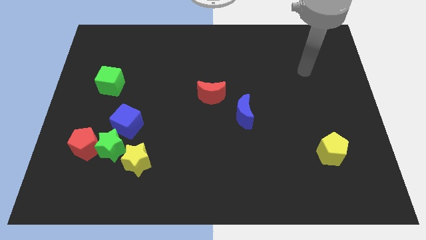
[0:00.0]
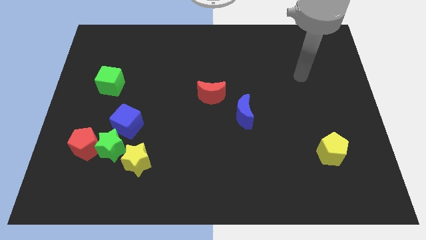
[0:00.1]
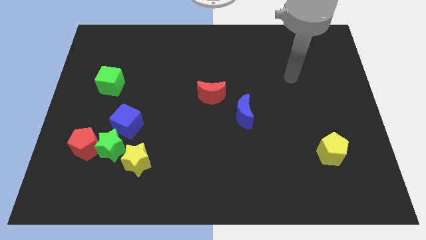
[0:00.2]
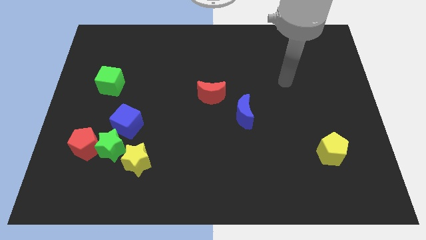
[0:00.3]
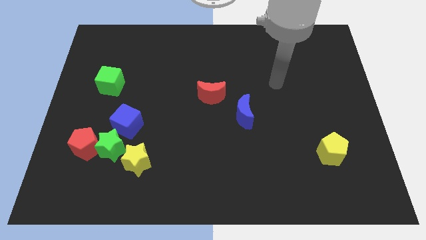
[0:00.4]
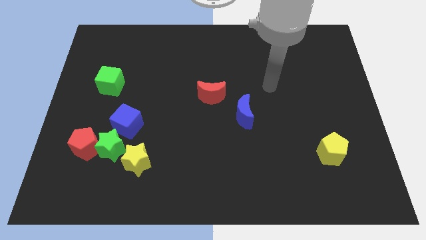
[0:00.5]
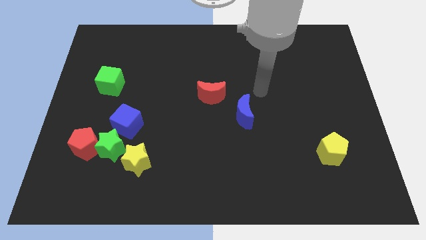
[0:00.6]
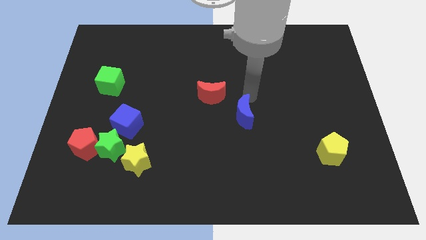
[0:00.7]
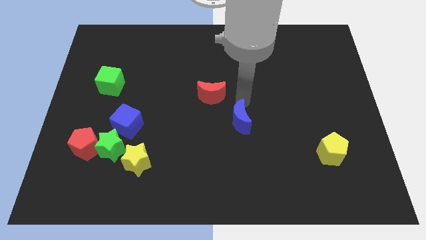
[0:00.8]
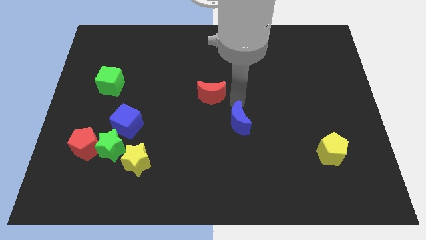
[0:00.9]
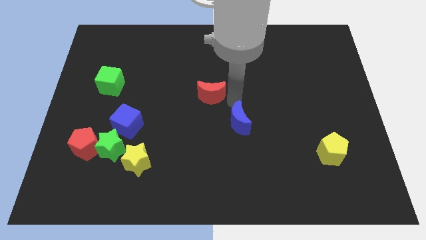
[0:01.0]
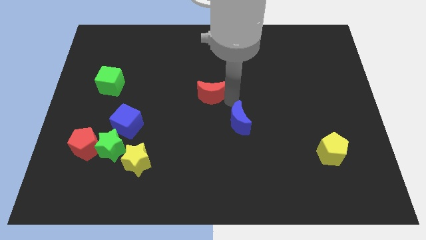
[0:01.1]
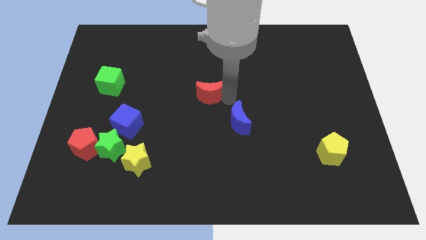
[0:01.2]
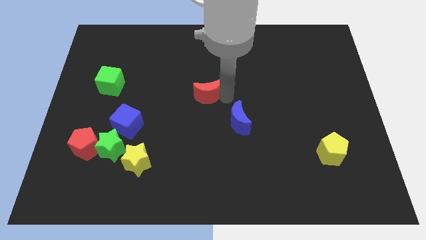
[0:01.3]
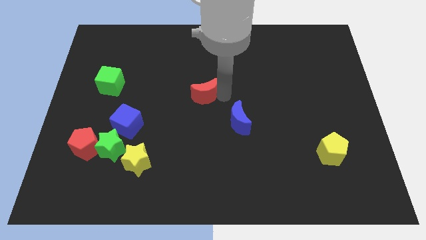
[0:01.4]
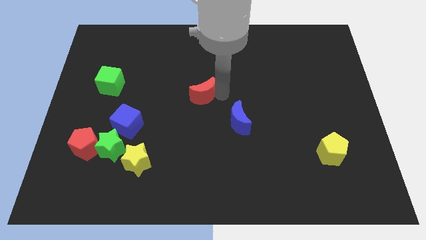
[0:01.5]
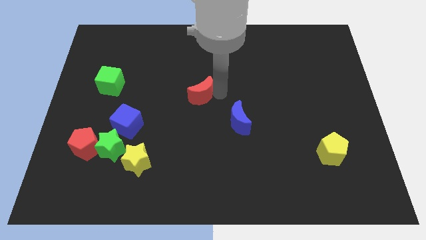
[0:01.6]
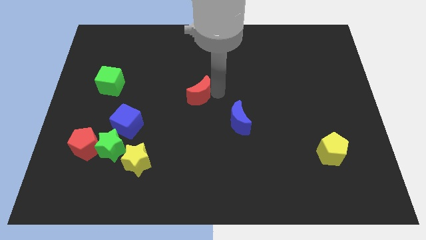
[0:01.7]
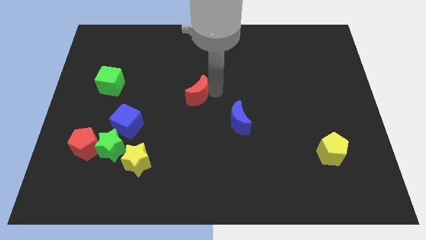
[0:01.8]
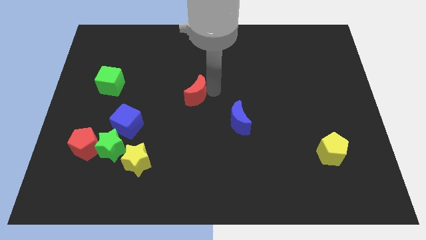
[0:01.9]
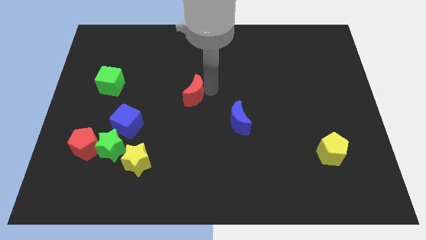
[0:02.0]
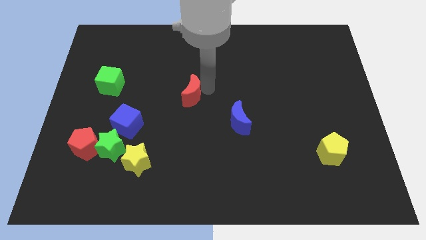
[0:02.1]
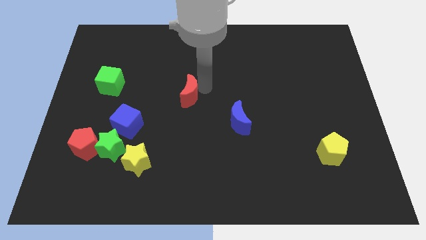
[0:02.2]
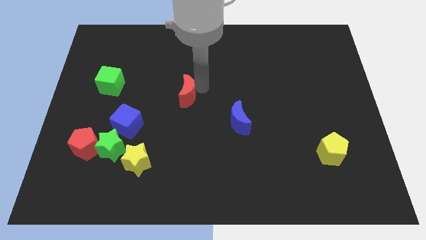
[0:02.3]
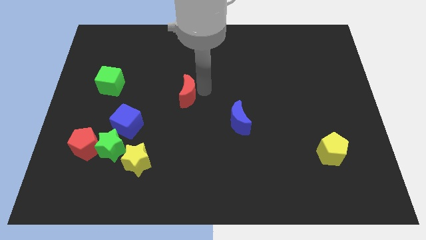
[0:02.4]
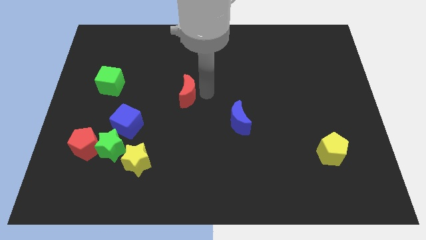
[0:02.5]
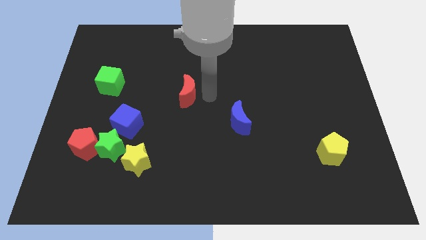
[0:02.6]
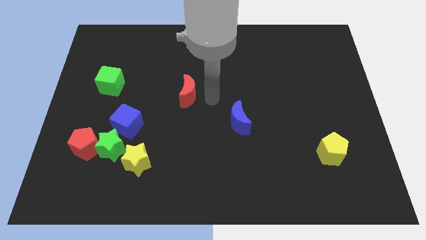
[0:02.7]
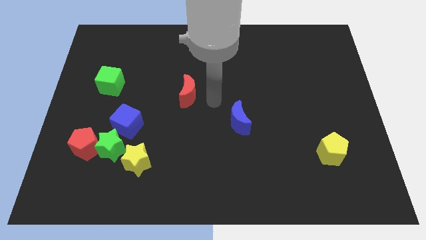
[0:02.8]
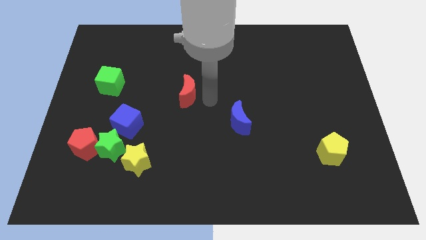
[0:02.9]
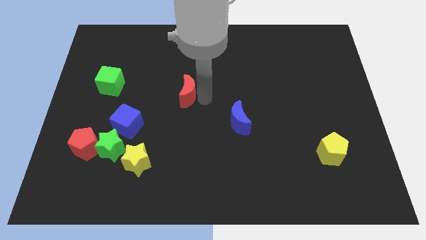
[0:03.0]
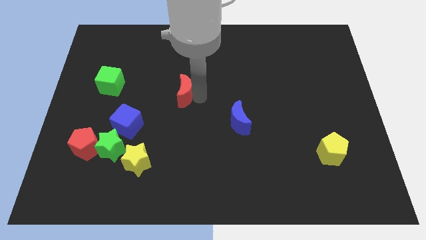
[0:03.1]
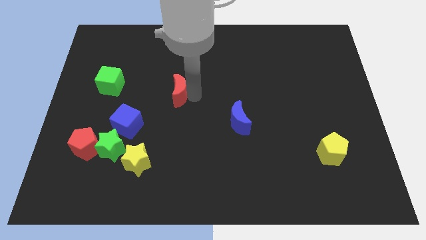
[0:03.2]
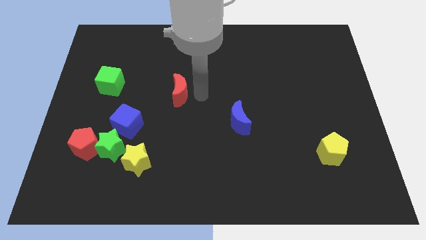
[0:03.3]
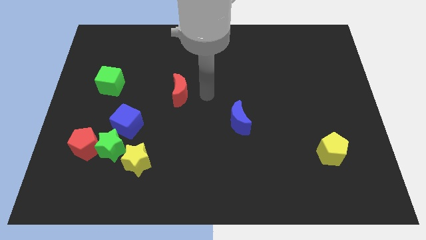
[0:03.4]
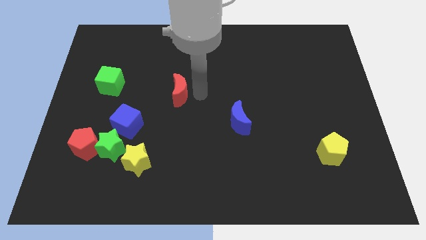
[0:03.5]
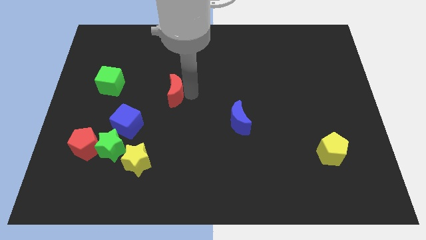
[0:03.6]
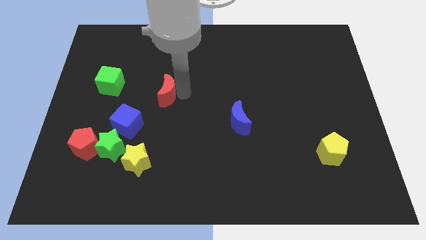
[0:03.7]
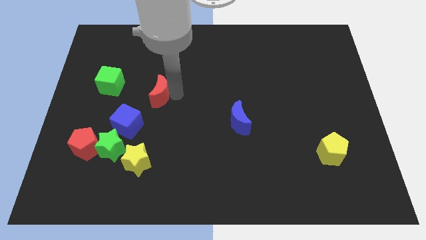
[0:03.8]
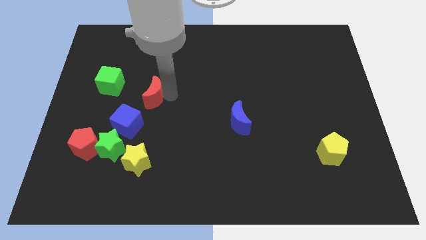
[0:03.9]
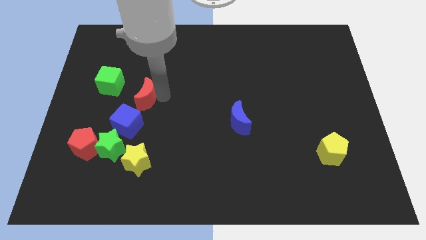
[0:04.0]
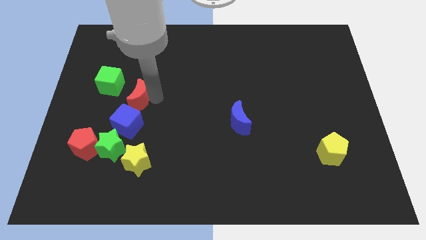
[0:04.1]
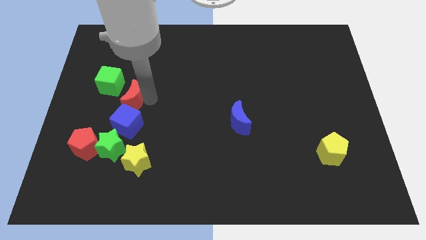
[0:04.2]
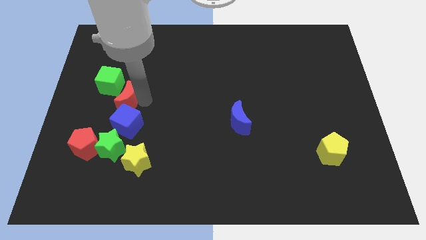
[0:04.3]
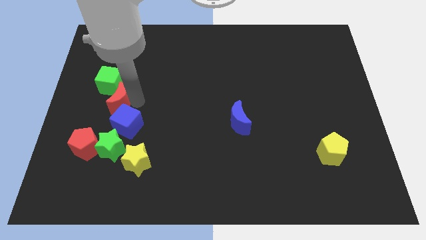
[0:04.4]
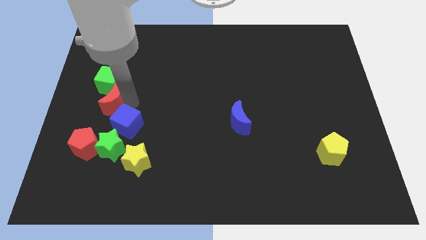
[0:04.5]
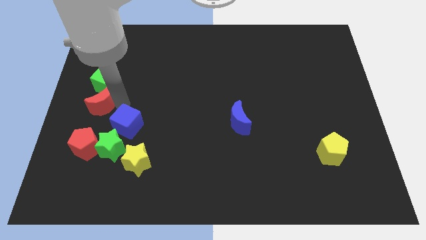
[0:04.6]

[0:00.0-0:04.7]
push the red moon to the left side of the board

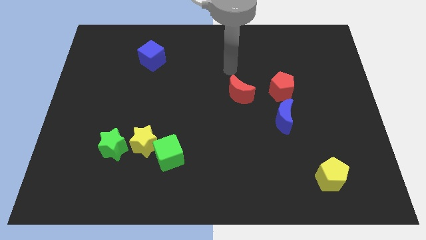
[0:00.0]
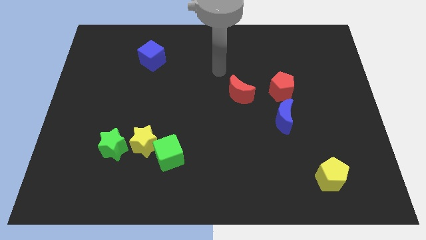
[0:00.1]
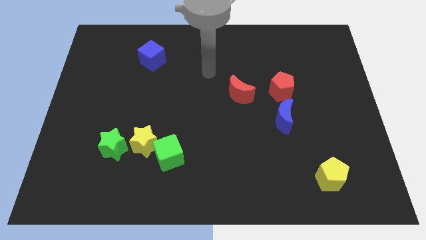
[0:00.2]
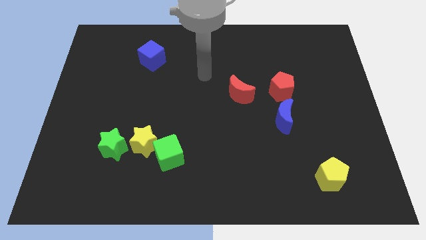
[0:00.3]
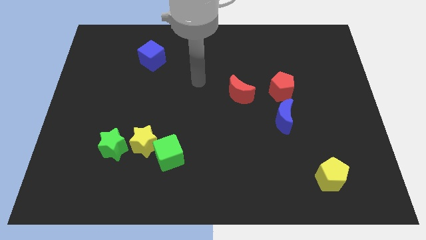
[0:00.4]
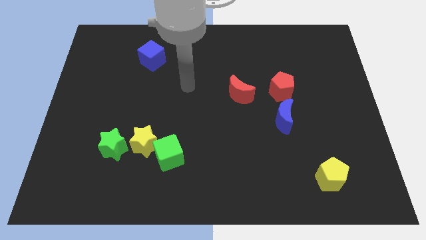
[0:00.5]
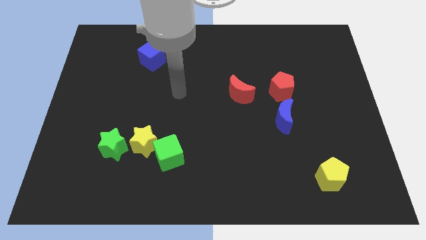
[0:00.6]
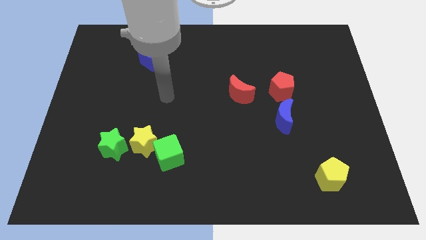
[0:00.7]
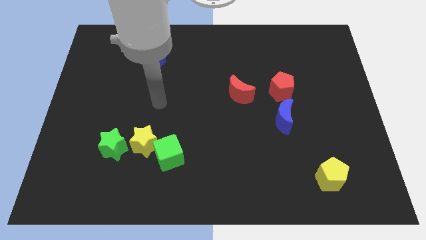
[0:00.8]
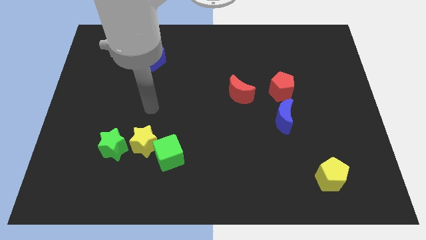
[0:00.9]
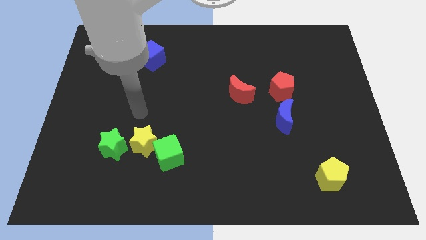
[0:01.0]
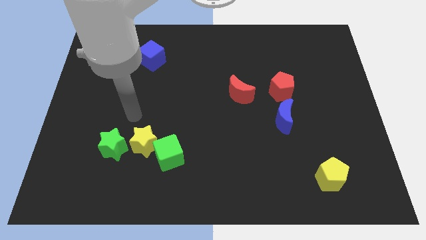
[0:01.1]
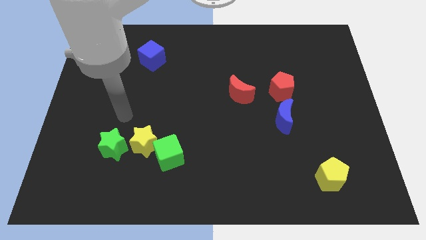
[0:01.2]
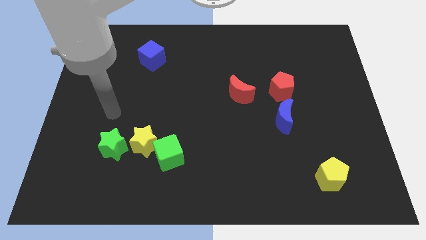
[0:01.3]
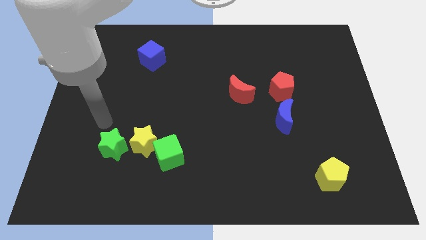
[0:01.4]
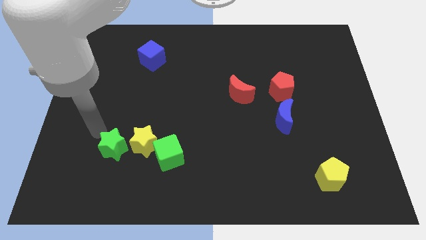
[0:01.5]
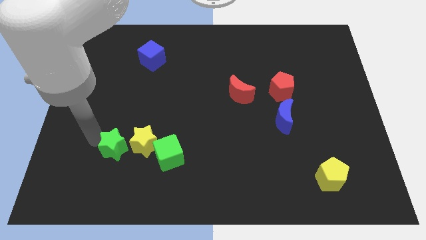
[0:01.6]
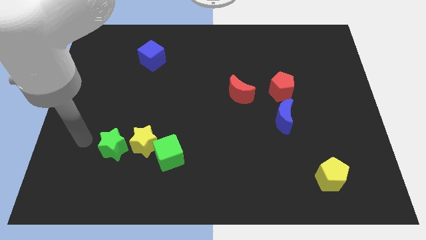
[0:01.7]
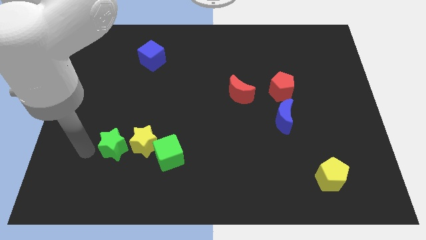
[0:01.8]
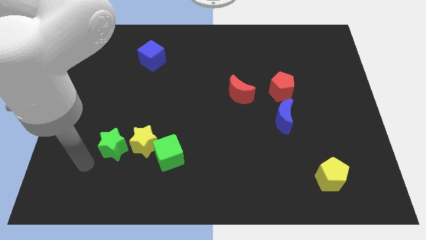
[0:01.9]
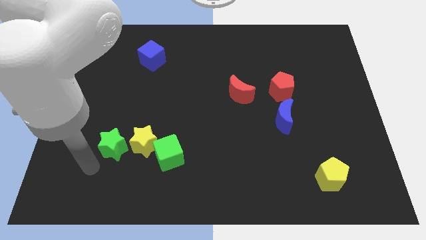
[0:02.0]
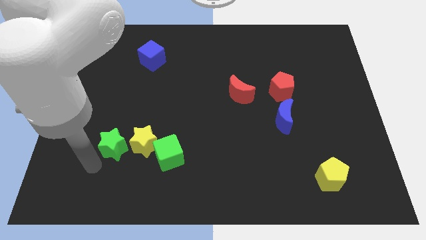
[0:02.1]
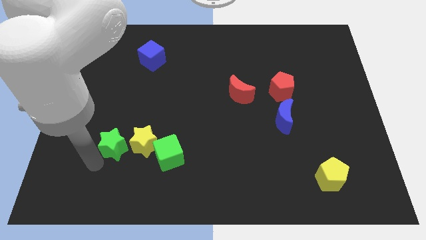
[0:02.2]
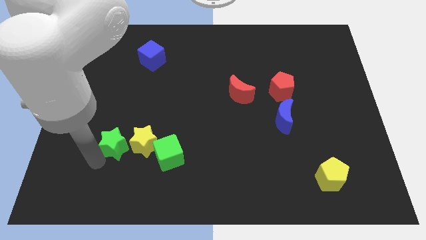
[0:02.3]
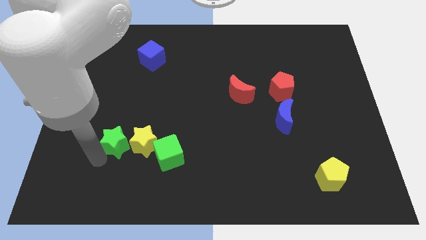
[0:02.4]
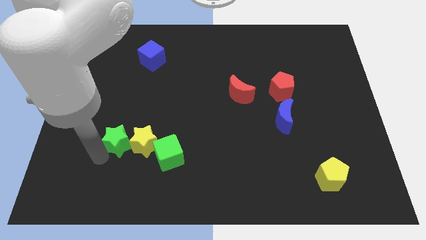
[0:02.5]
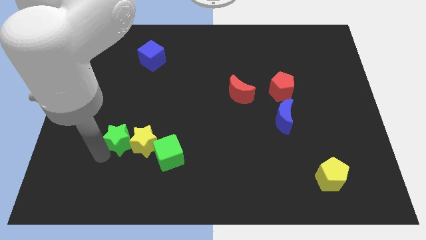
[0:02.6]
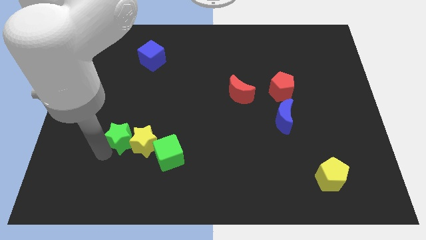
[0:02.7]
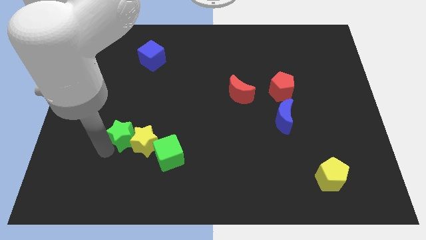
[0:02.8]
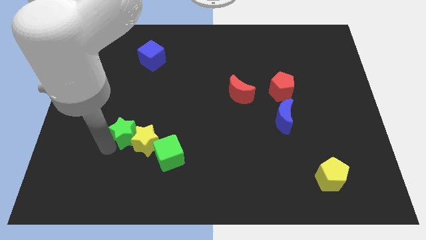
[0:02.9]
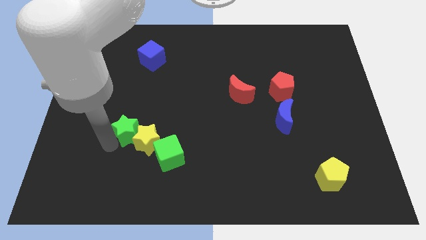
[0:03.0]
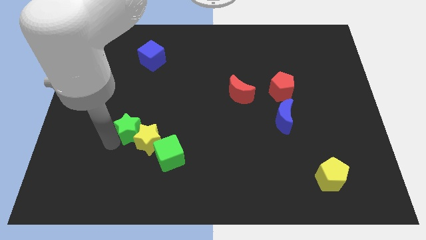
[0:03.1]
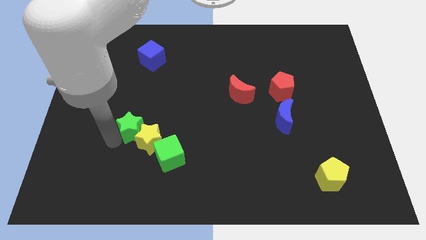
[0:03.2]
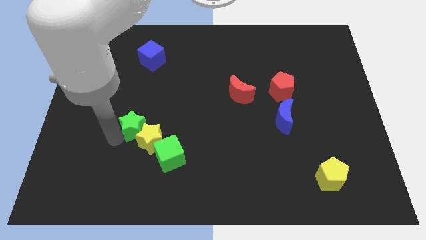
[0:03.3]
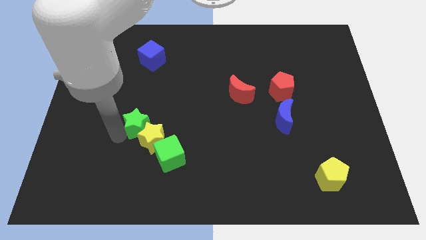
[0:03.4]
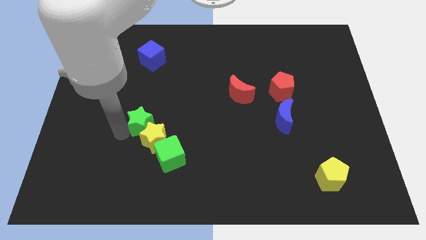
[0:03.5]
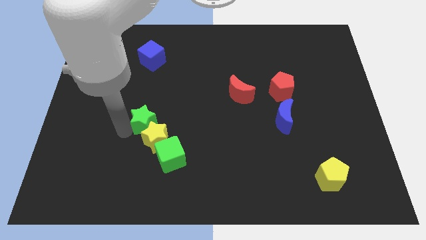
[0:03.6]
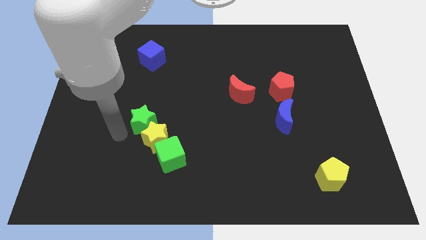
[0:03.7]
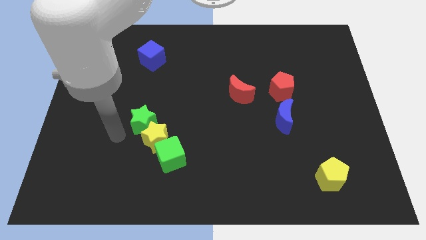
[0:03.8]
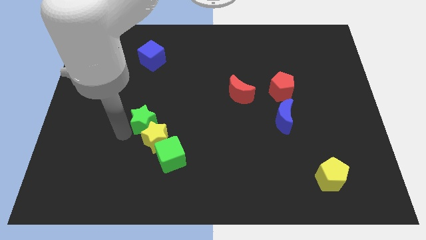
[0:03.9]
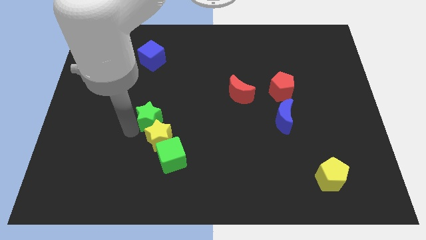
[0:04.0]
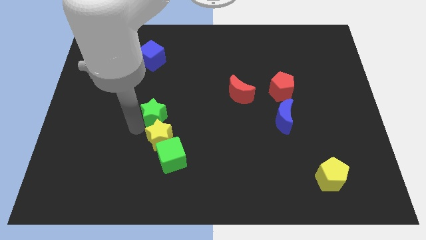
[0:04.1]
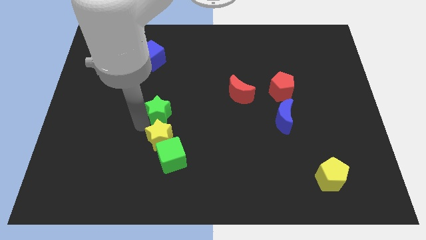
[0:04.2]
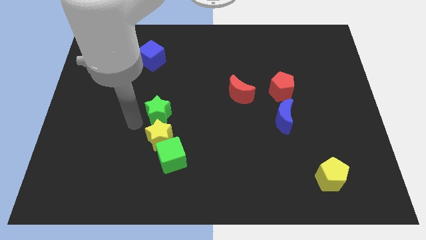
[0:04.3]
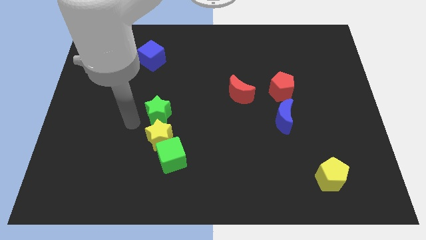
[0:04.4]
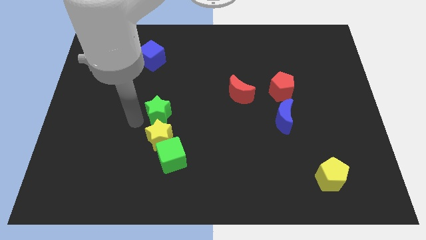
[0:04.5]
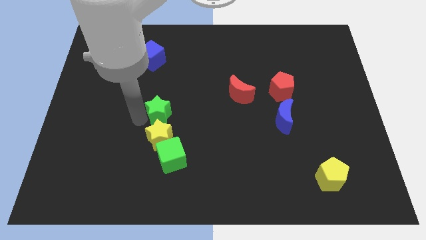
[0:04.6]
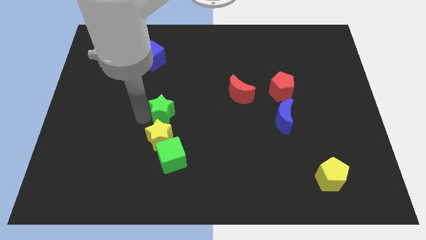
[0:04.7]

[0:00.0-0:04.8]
push the green star to the middle
